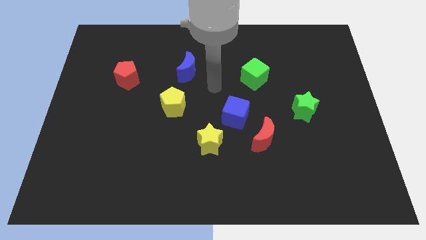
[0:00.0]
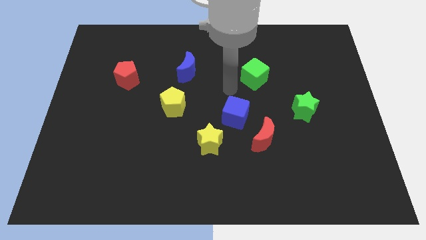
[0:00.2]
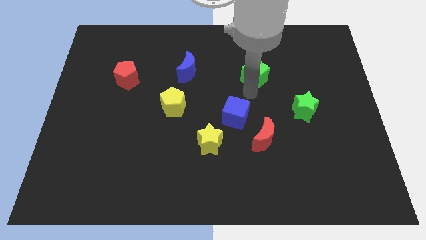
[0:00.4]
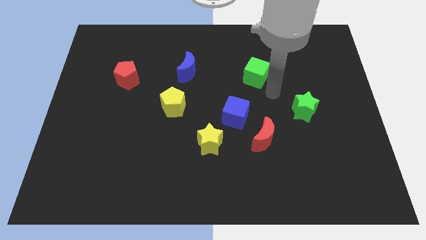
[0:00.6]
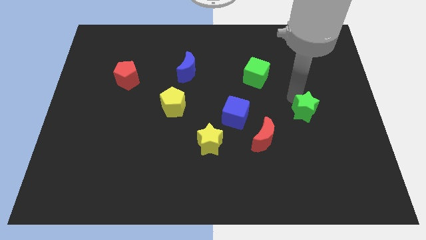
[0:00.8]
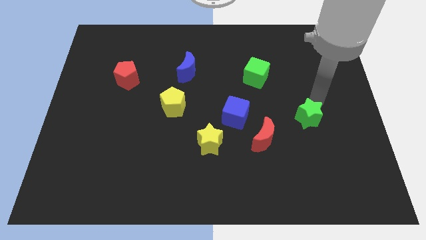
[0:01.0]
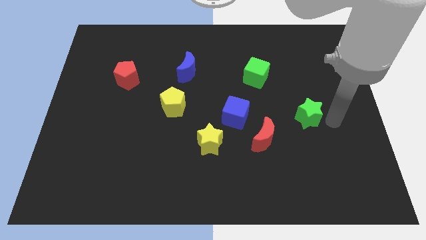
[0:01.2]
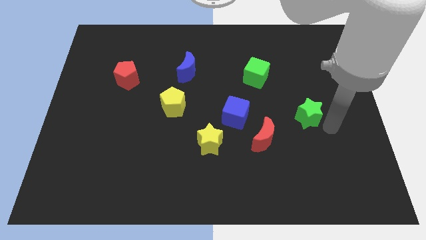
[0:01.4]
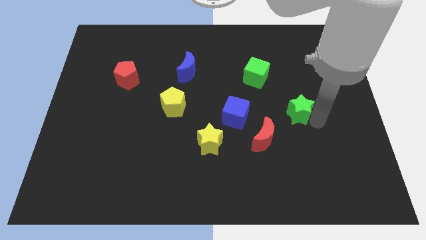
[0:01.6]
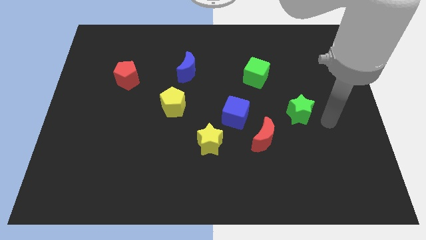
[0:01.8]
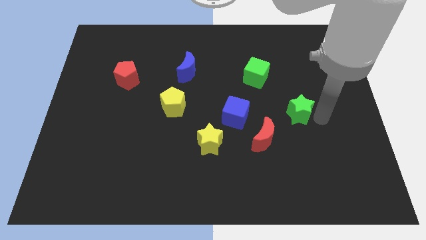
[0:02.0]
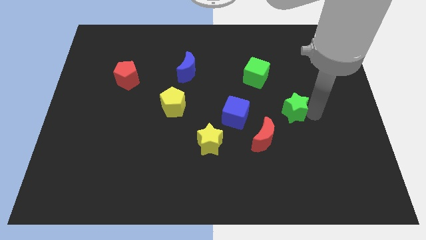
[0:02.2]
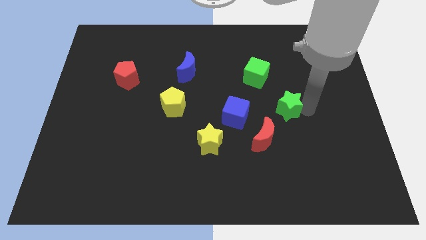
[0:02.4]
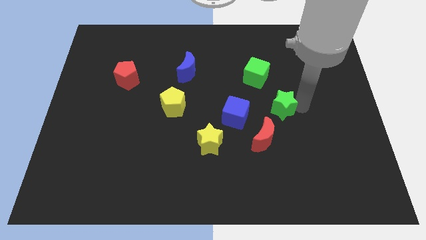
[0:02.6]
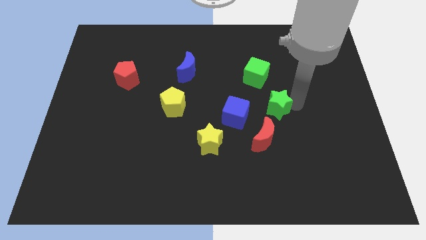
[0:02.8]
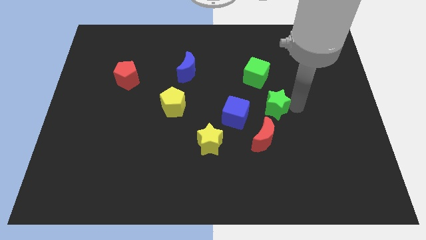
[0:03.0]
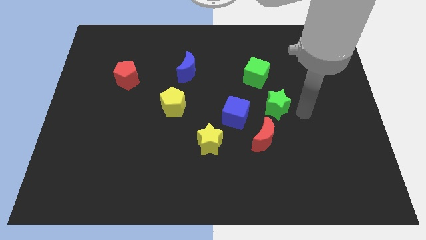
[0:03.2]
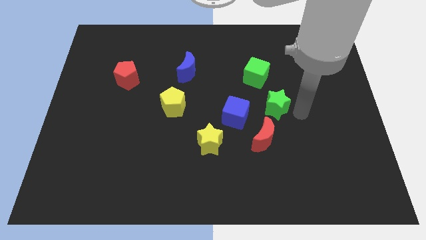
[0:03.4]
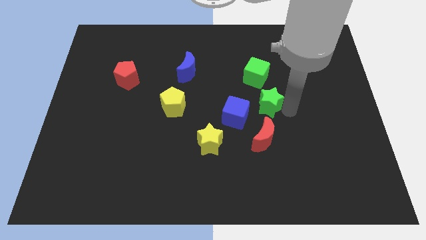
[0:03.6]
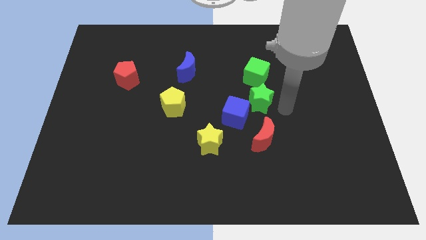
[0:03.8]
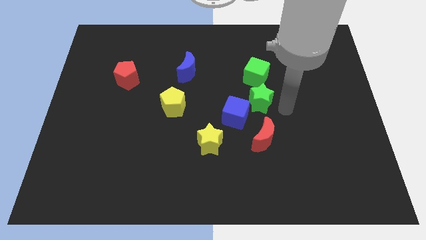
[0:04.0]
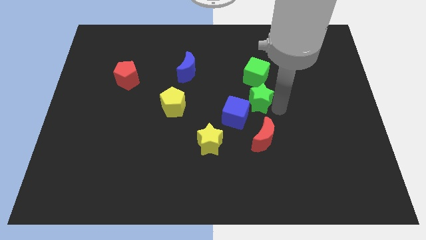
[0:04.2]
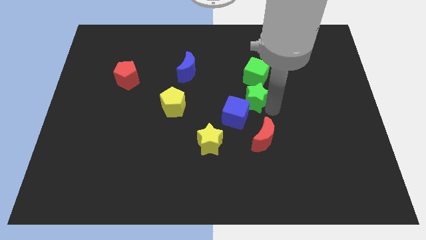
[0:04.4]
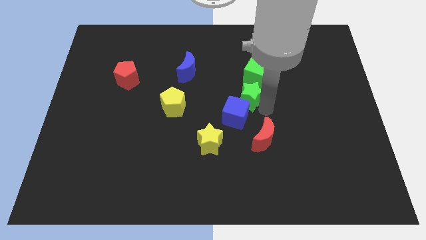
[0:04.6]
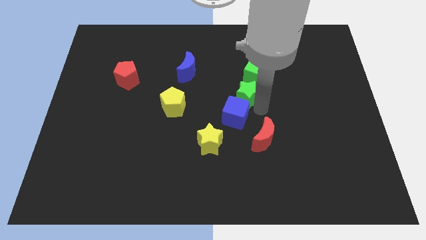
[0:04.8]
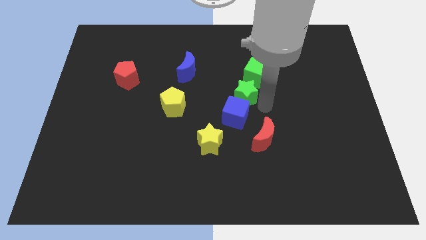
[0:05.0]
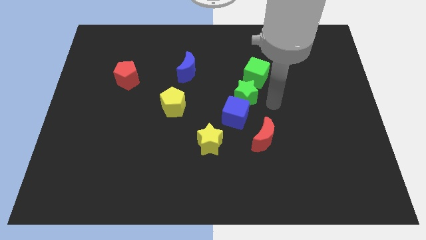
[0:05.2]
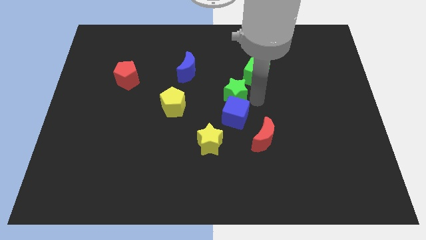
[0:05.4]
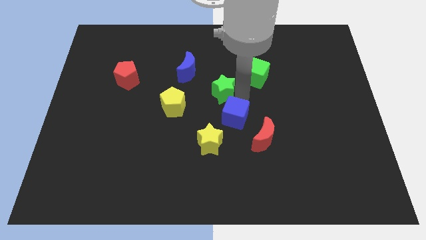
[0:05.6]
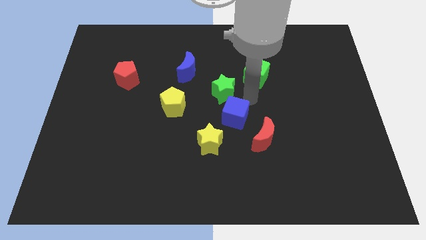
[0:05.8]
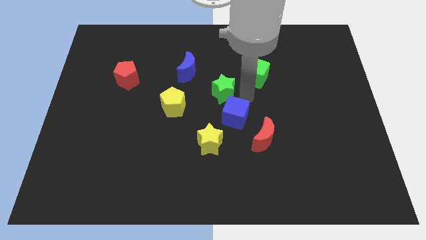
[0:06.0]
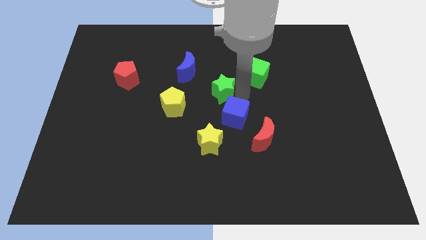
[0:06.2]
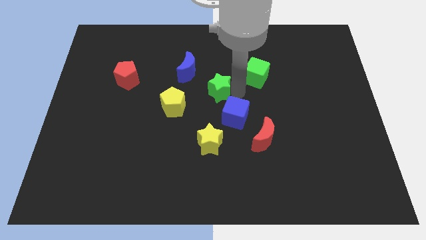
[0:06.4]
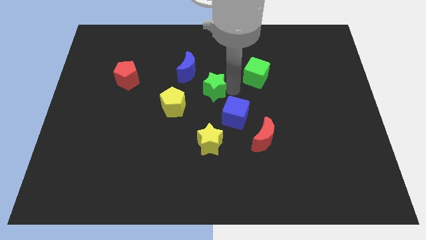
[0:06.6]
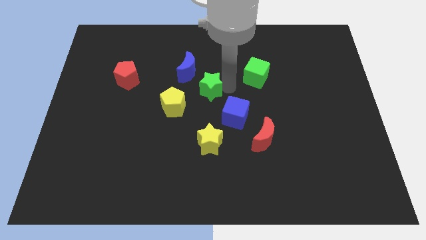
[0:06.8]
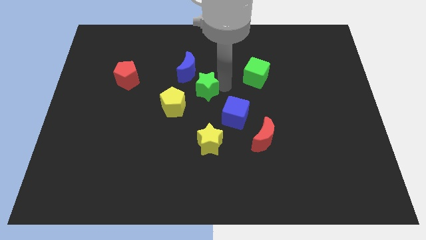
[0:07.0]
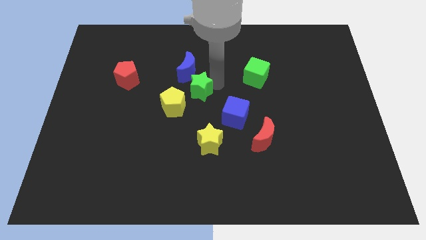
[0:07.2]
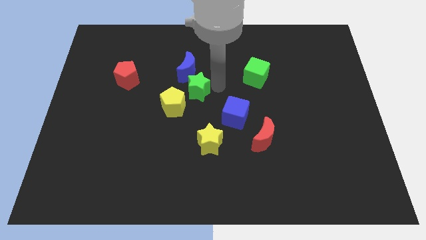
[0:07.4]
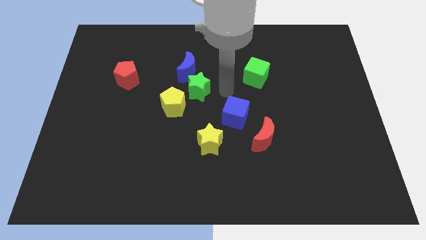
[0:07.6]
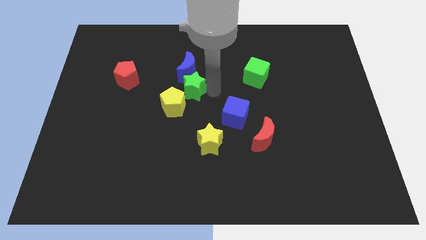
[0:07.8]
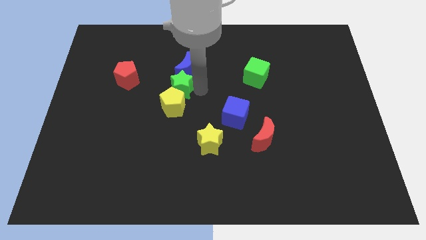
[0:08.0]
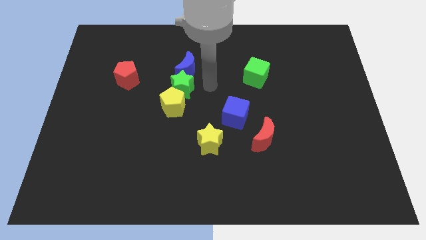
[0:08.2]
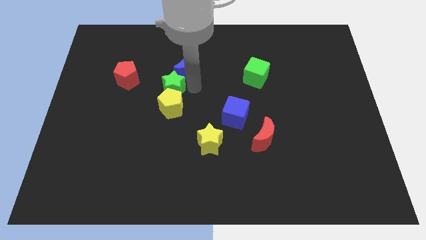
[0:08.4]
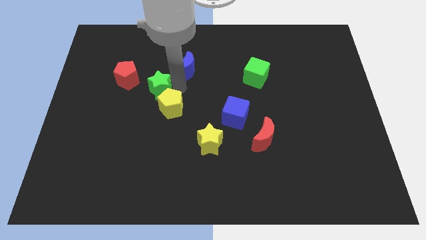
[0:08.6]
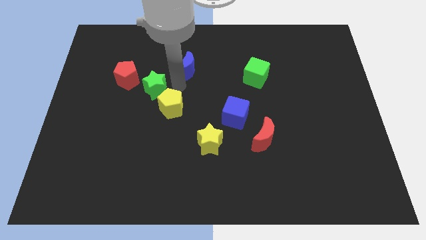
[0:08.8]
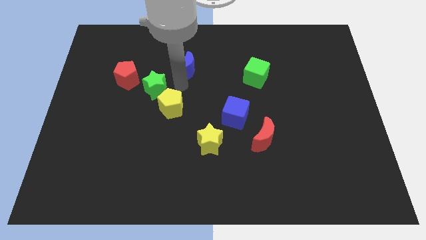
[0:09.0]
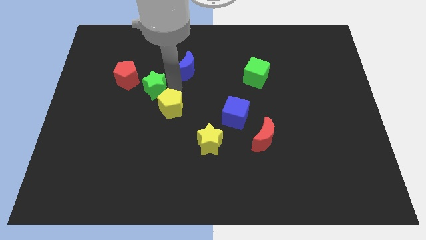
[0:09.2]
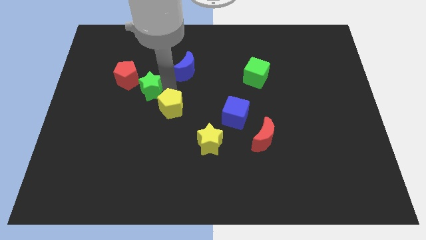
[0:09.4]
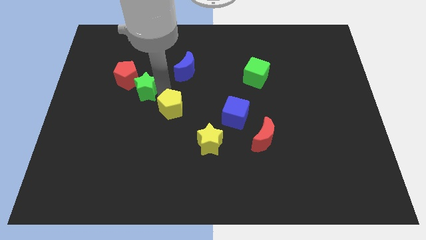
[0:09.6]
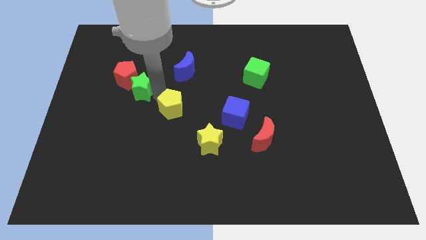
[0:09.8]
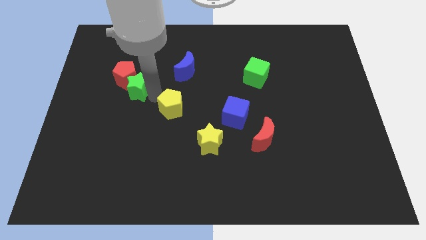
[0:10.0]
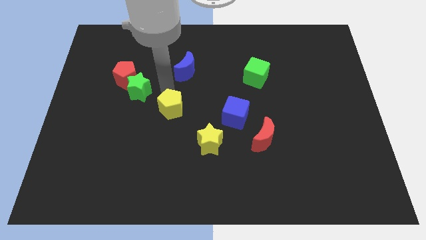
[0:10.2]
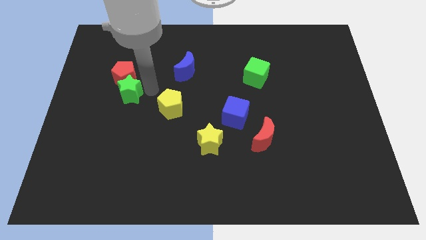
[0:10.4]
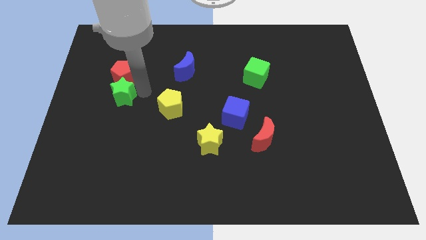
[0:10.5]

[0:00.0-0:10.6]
put the green star to the bottom left of the red pentagon

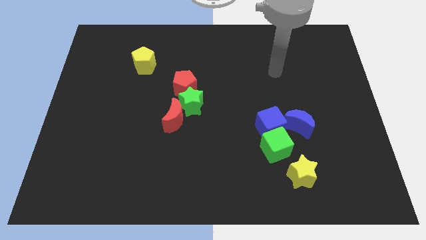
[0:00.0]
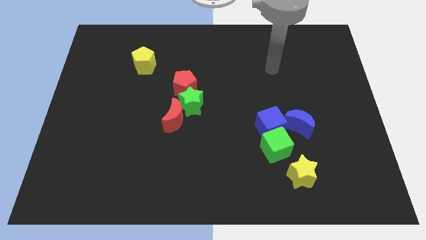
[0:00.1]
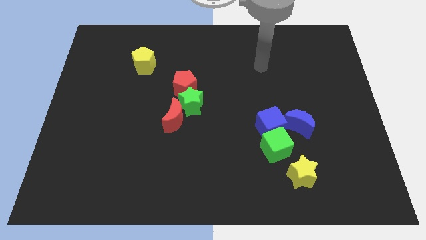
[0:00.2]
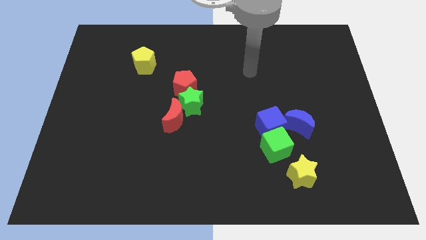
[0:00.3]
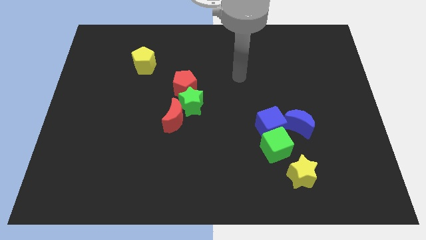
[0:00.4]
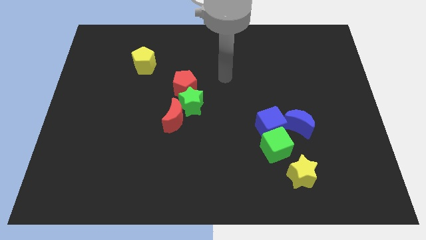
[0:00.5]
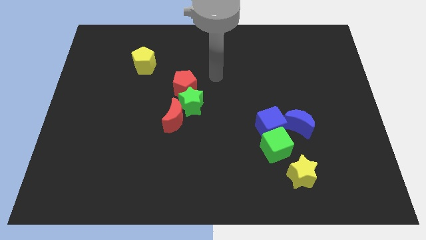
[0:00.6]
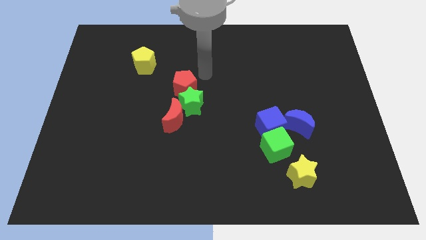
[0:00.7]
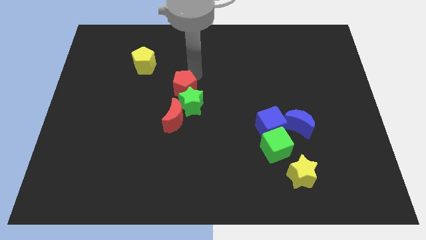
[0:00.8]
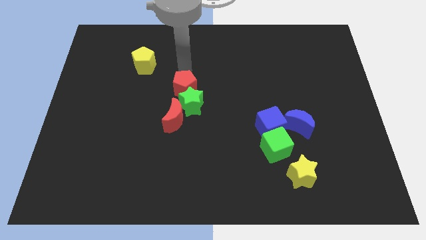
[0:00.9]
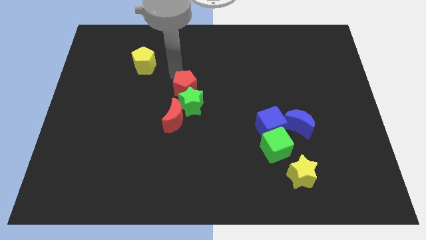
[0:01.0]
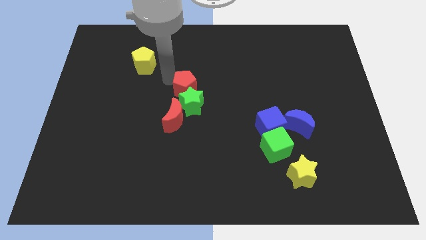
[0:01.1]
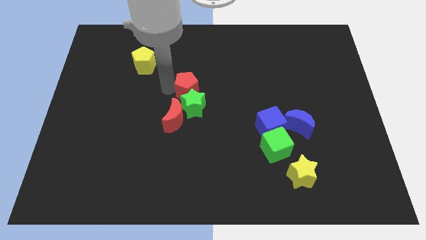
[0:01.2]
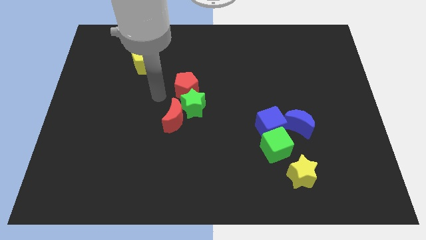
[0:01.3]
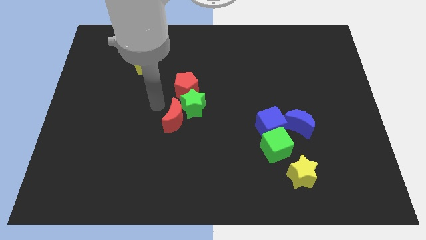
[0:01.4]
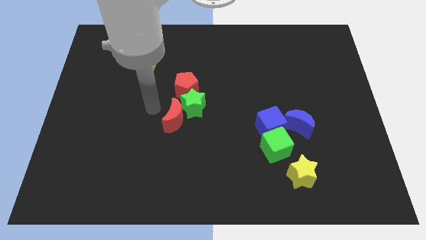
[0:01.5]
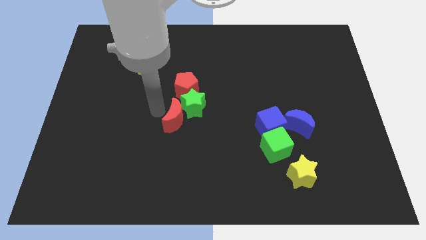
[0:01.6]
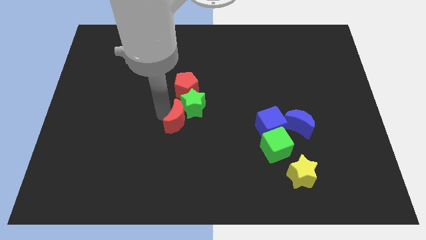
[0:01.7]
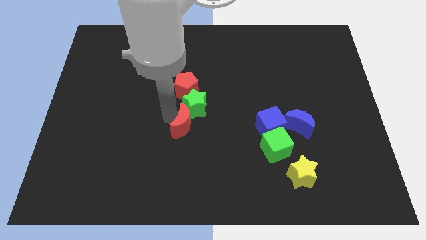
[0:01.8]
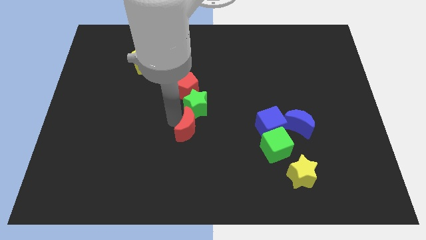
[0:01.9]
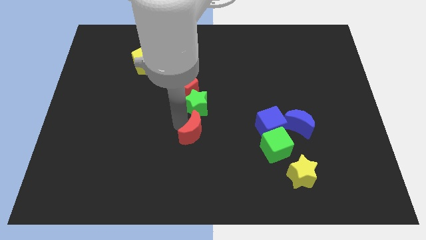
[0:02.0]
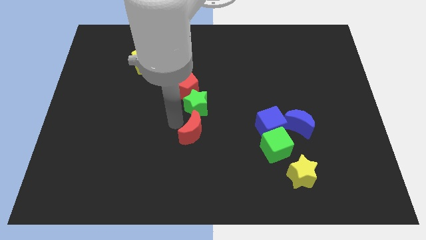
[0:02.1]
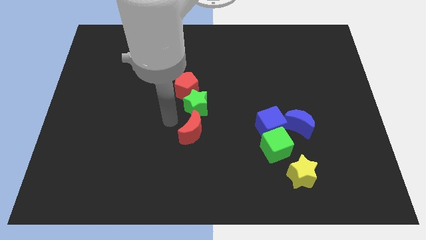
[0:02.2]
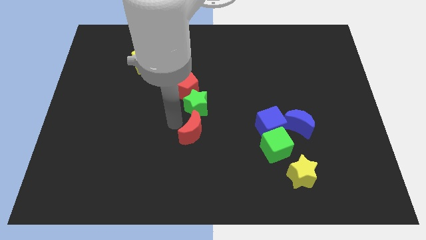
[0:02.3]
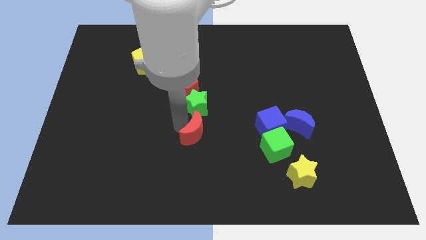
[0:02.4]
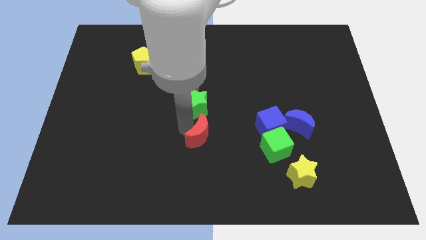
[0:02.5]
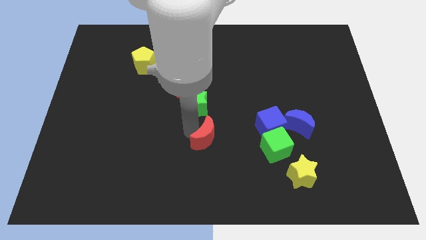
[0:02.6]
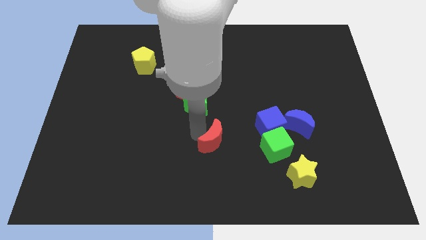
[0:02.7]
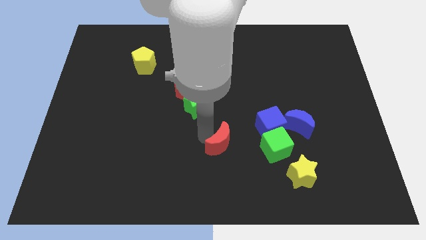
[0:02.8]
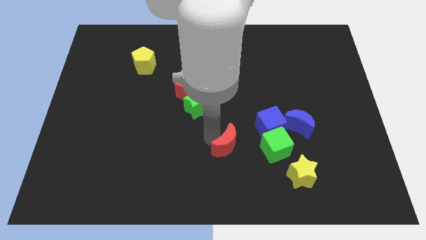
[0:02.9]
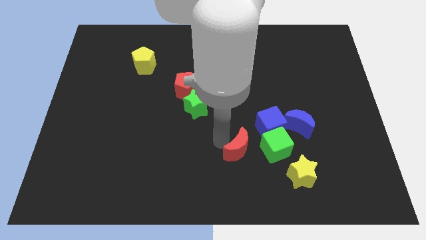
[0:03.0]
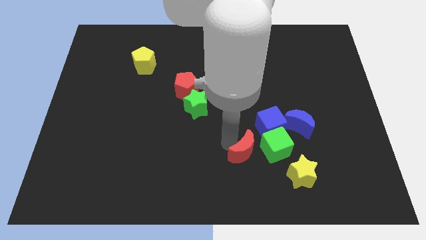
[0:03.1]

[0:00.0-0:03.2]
slide the red moon diagonally down and to the left of the green cube
